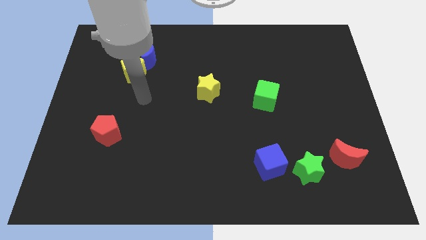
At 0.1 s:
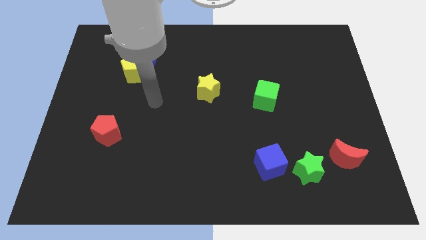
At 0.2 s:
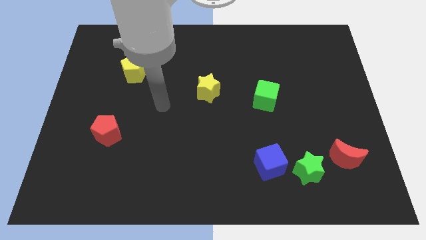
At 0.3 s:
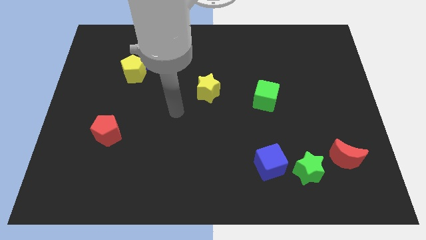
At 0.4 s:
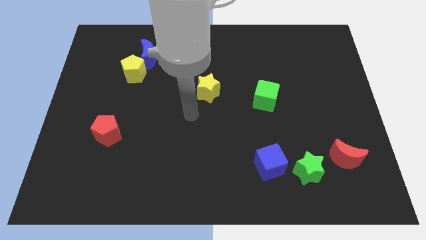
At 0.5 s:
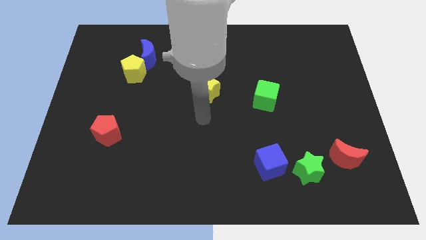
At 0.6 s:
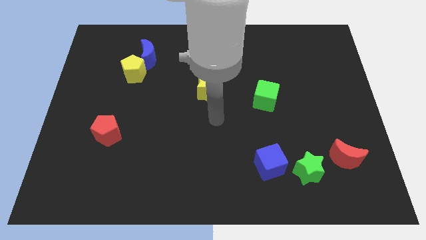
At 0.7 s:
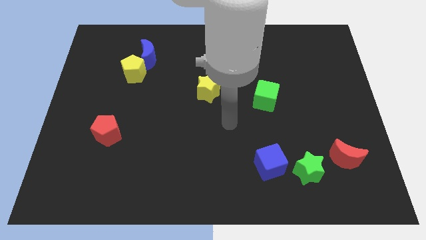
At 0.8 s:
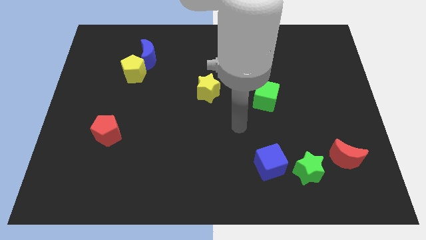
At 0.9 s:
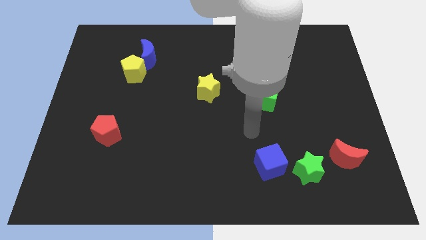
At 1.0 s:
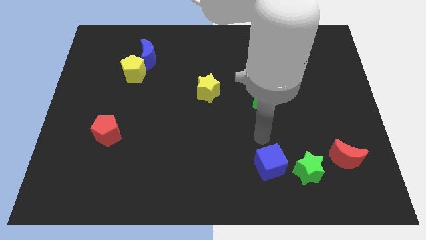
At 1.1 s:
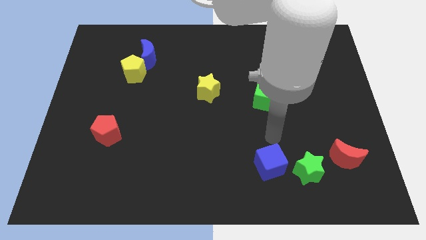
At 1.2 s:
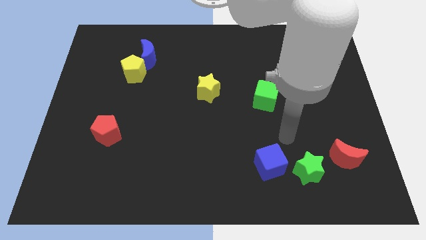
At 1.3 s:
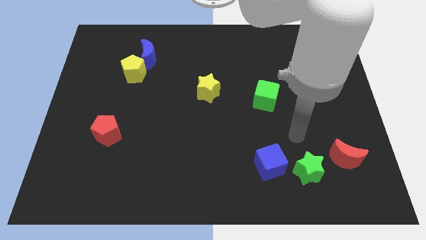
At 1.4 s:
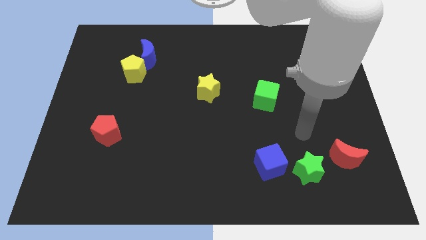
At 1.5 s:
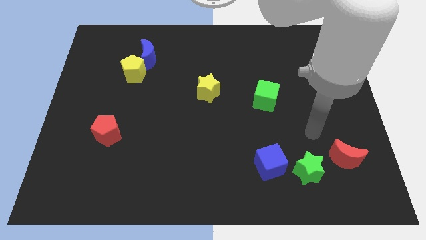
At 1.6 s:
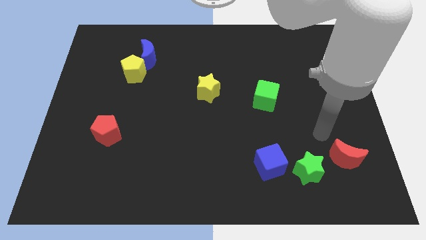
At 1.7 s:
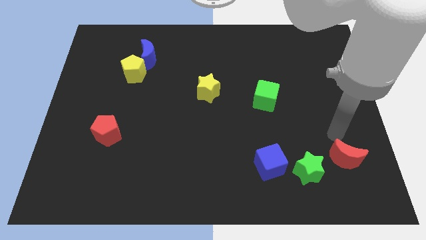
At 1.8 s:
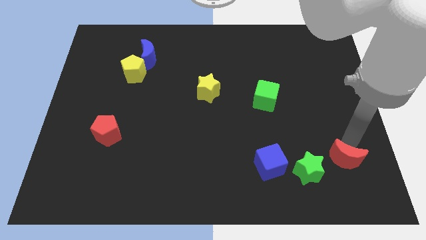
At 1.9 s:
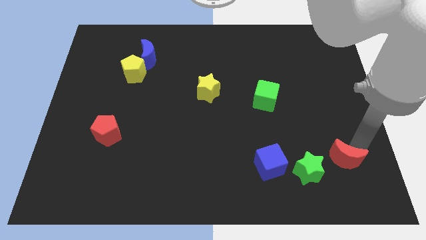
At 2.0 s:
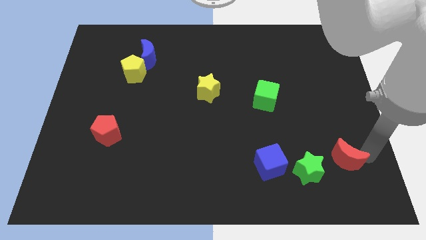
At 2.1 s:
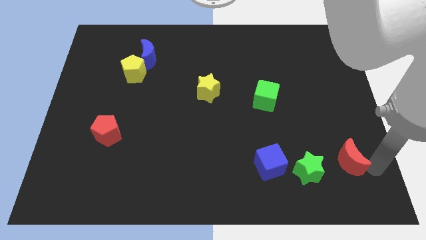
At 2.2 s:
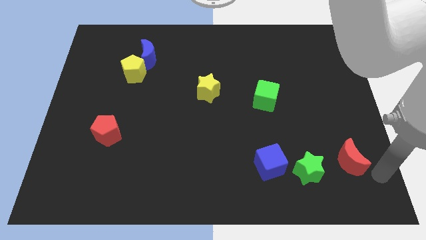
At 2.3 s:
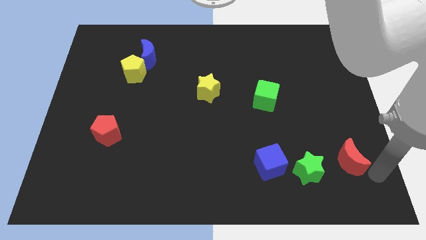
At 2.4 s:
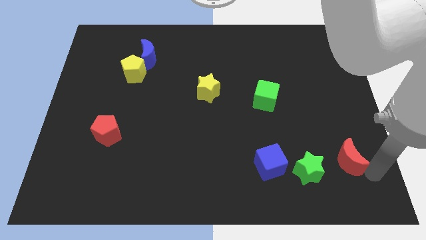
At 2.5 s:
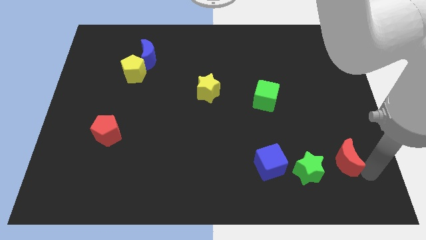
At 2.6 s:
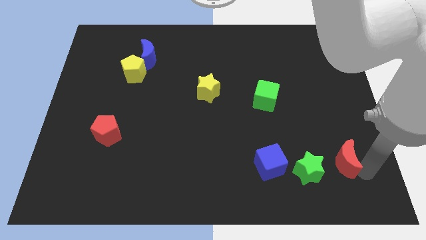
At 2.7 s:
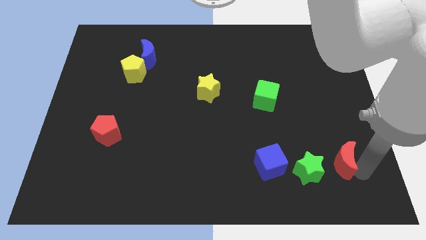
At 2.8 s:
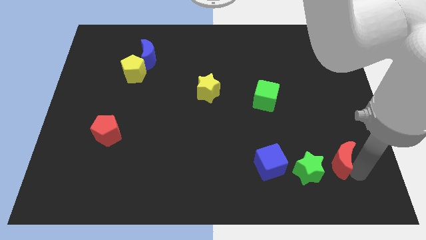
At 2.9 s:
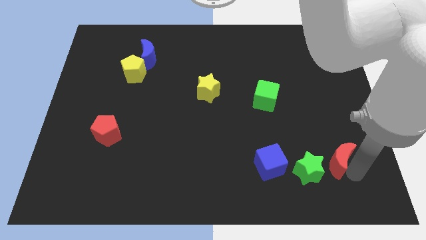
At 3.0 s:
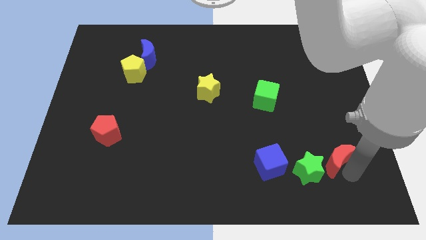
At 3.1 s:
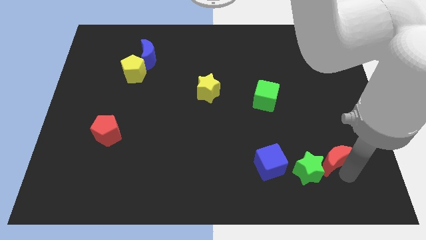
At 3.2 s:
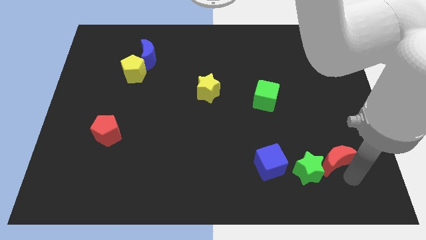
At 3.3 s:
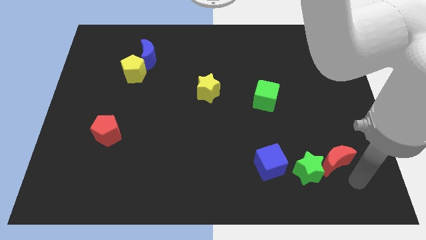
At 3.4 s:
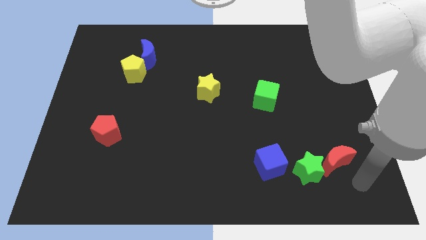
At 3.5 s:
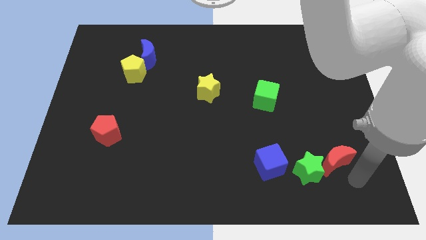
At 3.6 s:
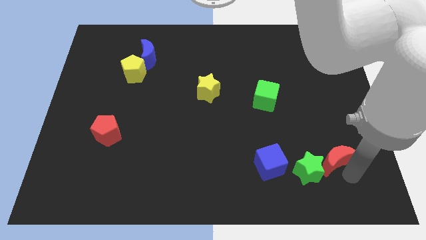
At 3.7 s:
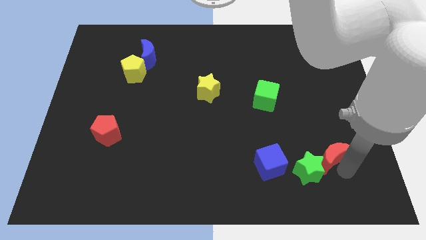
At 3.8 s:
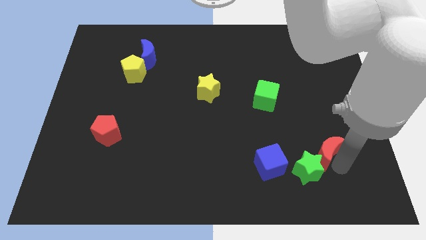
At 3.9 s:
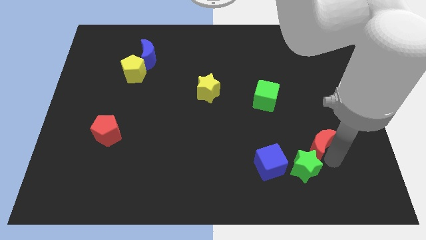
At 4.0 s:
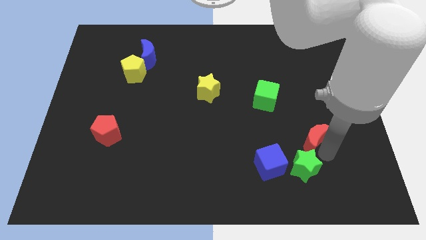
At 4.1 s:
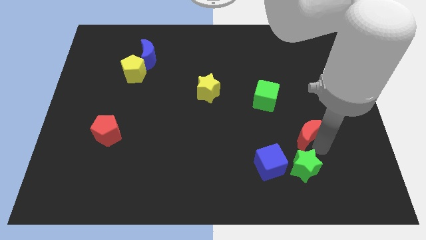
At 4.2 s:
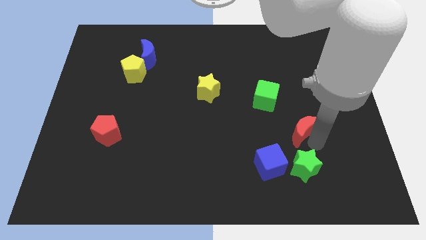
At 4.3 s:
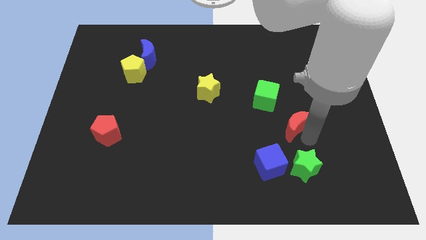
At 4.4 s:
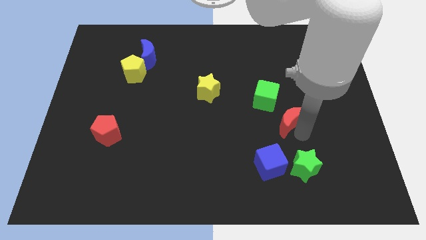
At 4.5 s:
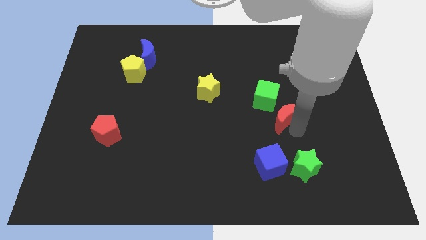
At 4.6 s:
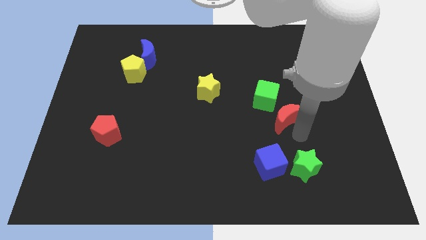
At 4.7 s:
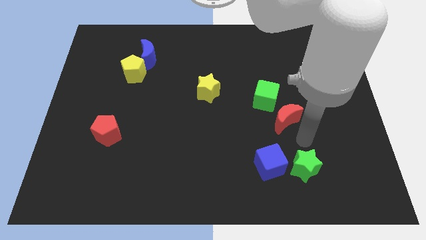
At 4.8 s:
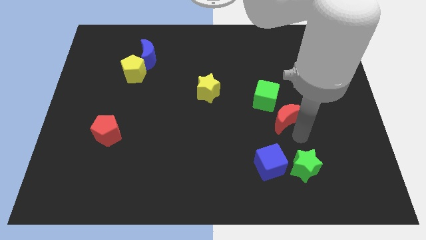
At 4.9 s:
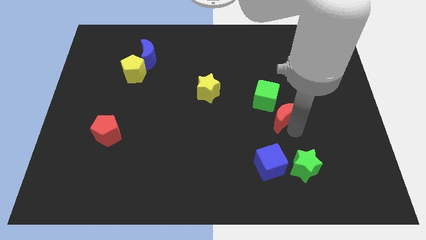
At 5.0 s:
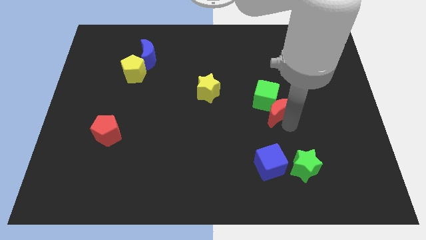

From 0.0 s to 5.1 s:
move the red moon close to the green cube

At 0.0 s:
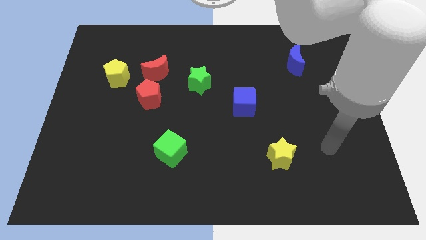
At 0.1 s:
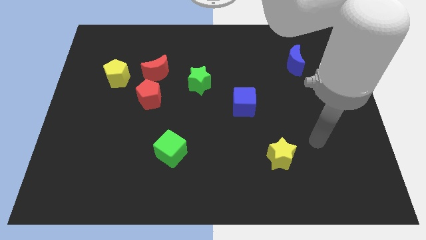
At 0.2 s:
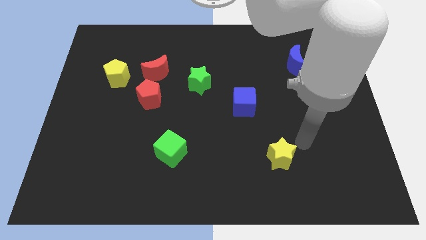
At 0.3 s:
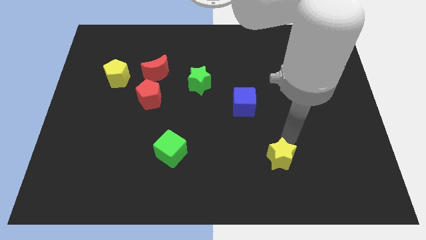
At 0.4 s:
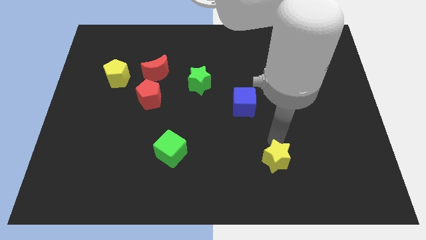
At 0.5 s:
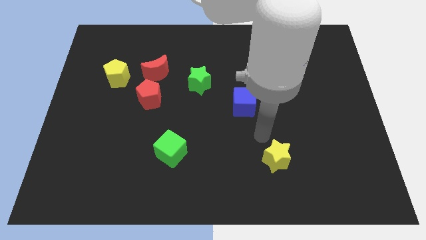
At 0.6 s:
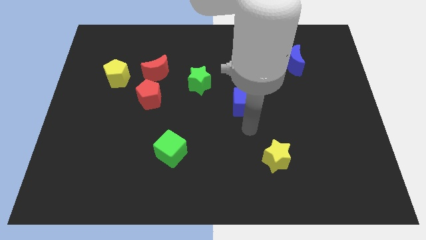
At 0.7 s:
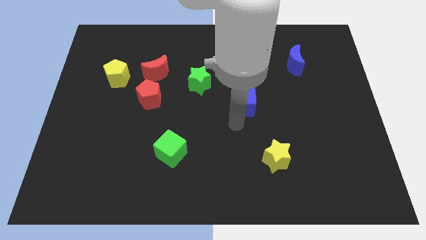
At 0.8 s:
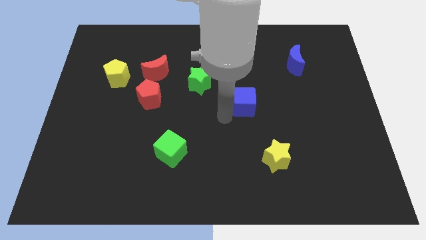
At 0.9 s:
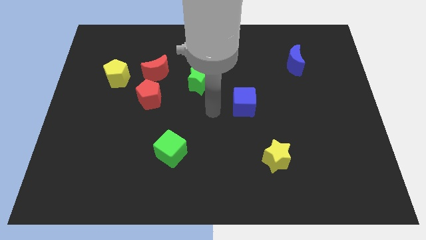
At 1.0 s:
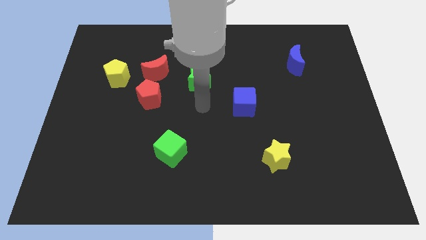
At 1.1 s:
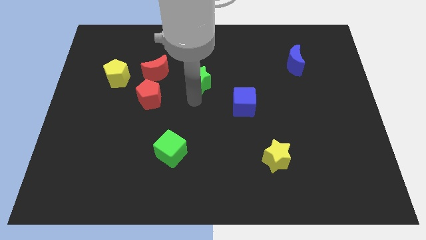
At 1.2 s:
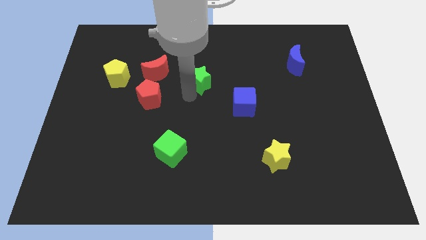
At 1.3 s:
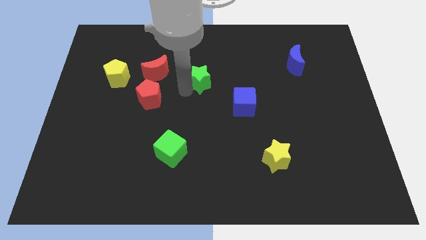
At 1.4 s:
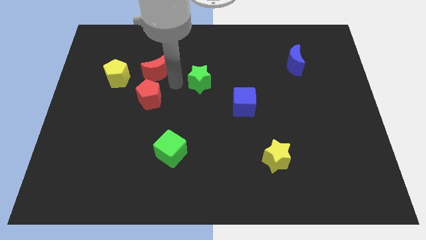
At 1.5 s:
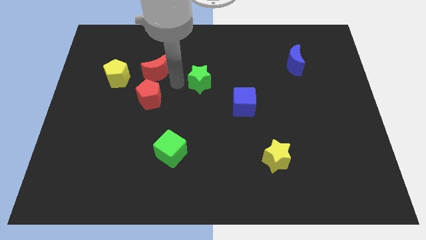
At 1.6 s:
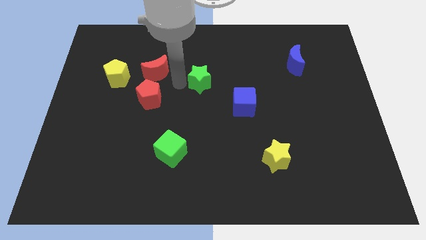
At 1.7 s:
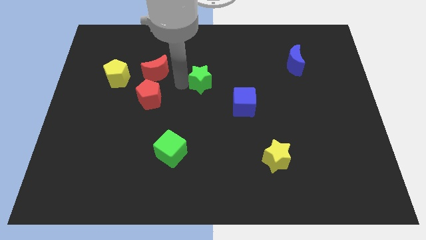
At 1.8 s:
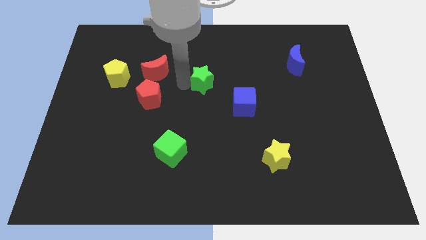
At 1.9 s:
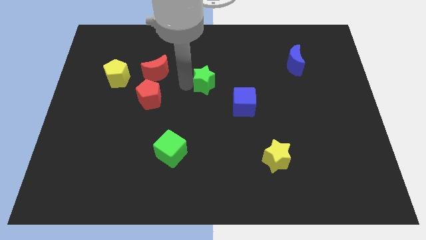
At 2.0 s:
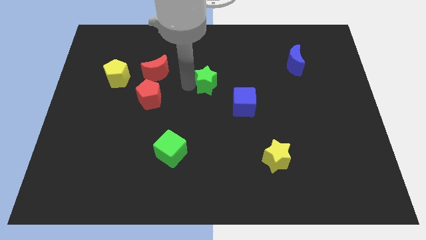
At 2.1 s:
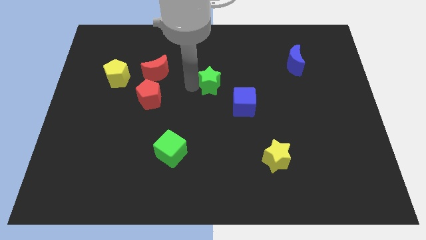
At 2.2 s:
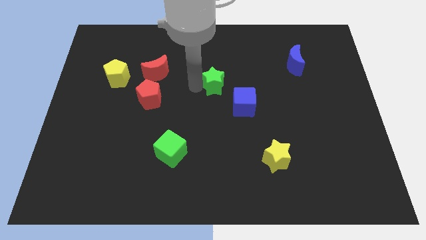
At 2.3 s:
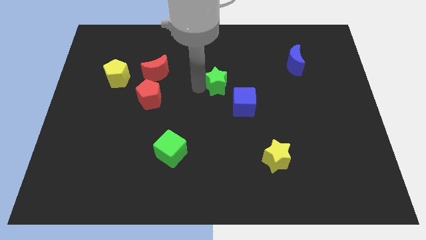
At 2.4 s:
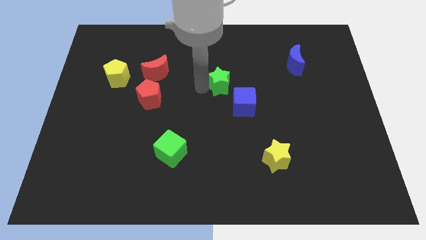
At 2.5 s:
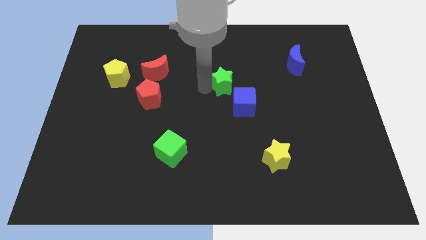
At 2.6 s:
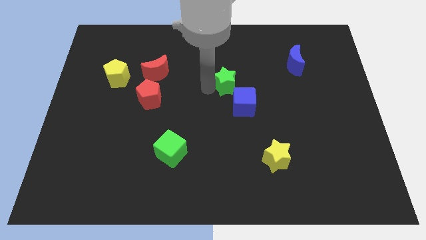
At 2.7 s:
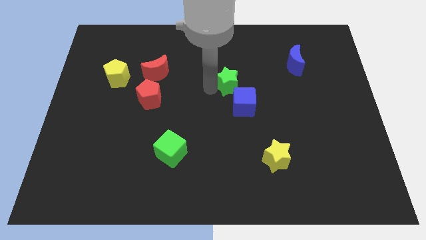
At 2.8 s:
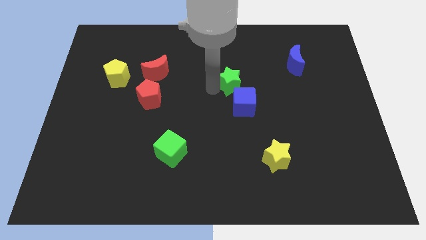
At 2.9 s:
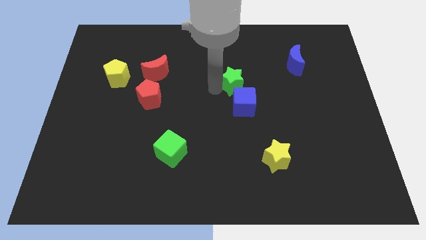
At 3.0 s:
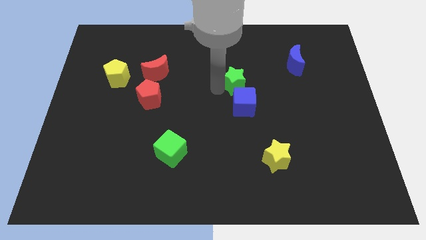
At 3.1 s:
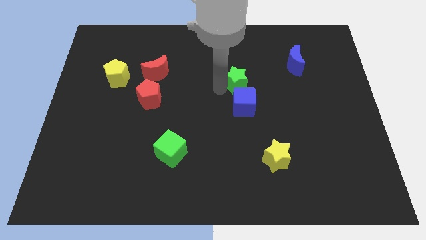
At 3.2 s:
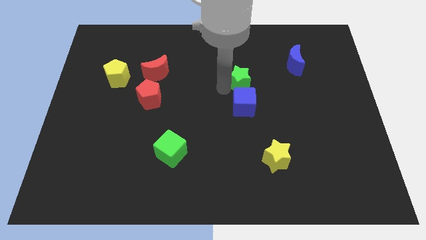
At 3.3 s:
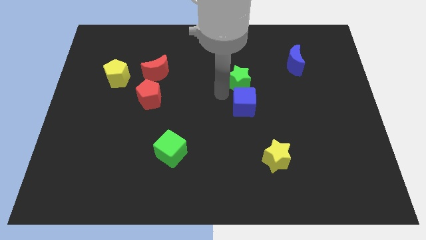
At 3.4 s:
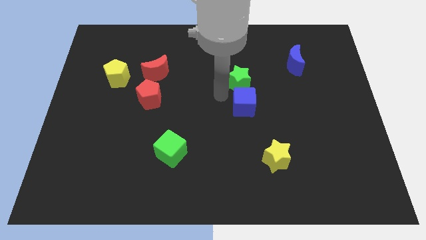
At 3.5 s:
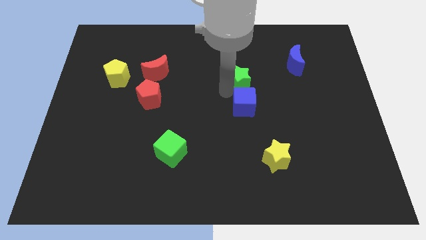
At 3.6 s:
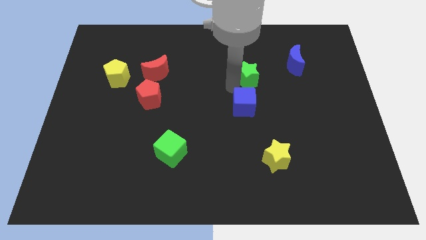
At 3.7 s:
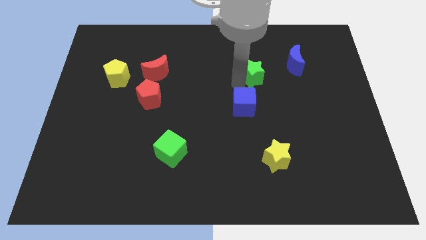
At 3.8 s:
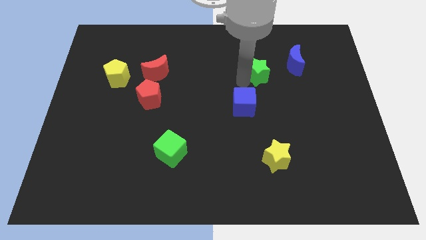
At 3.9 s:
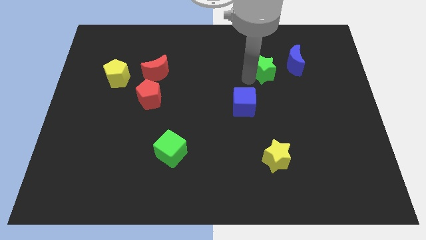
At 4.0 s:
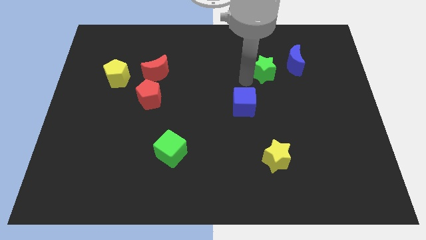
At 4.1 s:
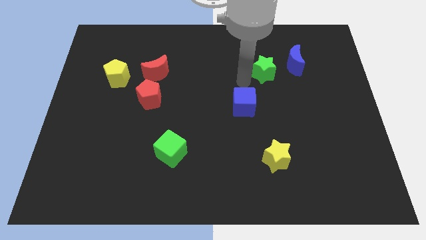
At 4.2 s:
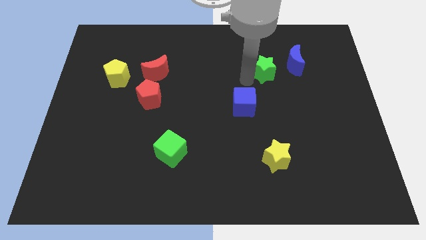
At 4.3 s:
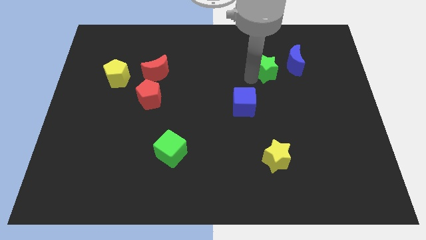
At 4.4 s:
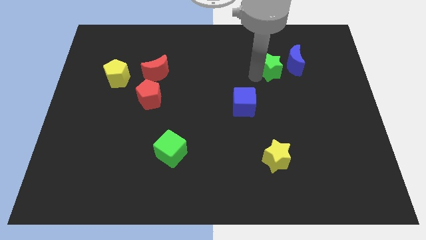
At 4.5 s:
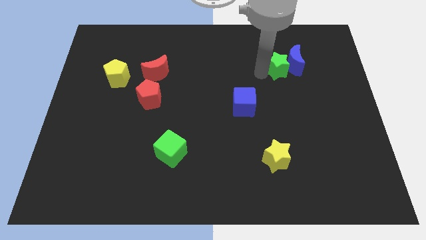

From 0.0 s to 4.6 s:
push the green star close to the blue moon
